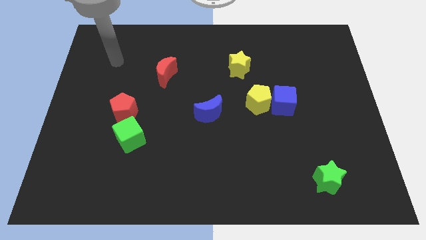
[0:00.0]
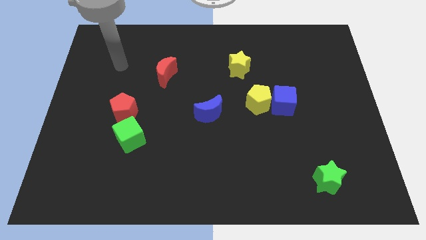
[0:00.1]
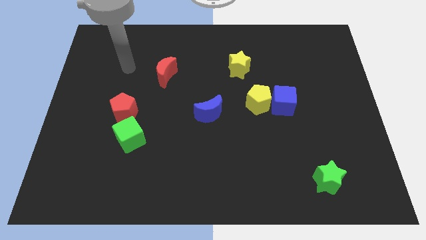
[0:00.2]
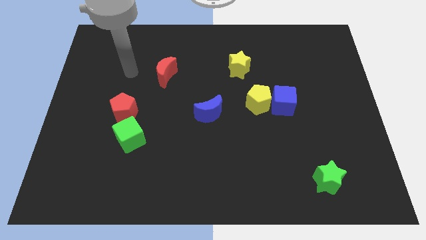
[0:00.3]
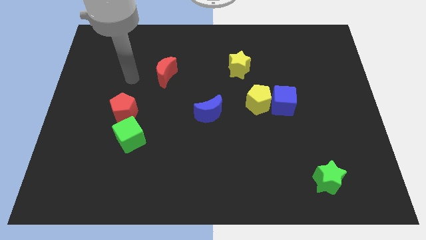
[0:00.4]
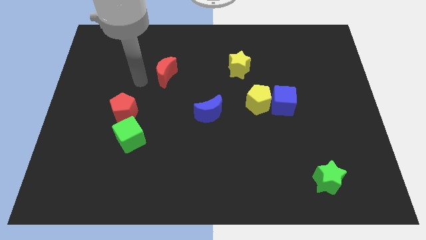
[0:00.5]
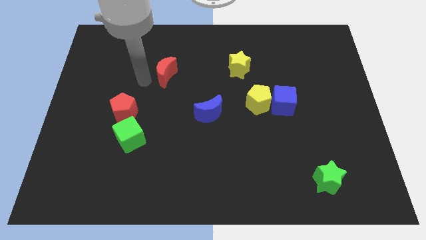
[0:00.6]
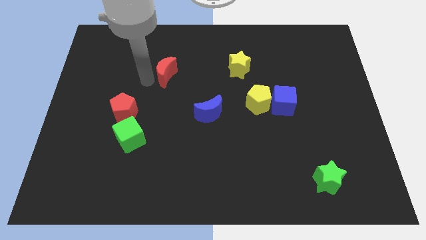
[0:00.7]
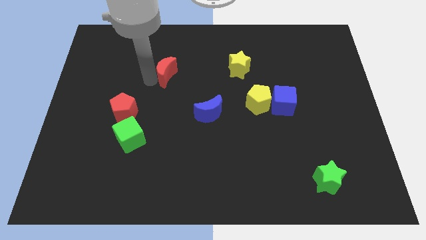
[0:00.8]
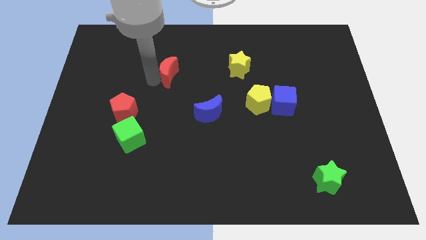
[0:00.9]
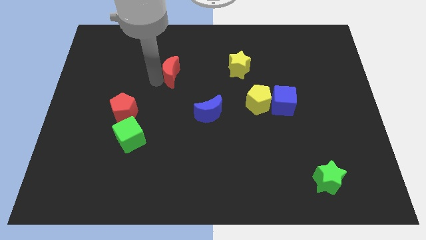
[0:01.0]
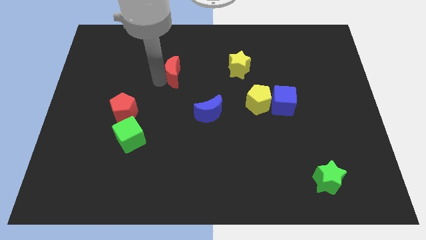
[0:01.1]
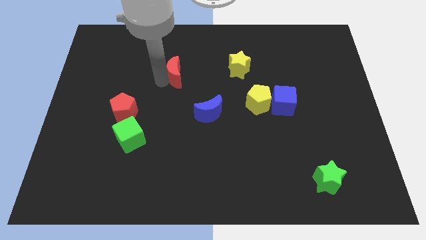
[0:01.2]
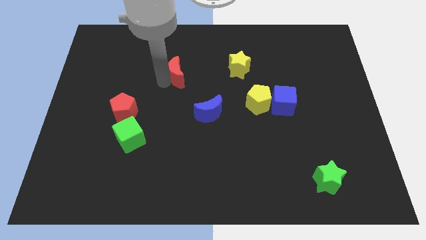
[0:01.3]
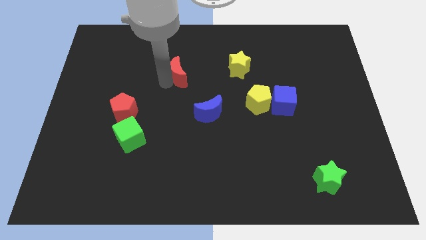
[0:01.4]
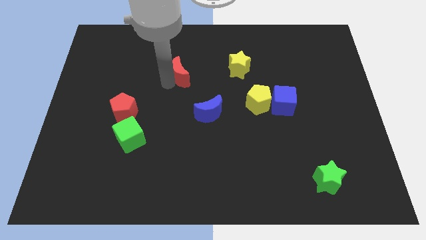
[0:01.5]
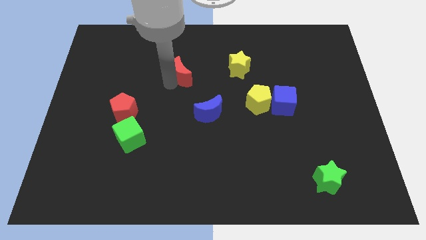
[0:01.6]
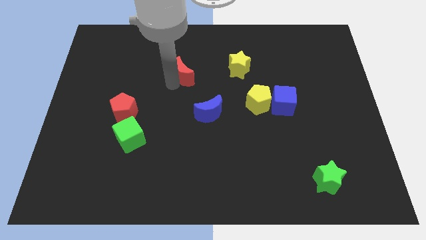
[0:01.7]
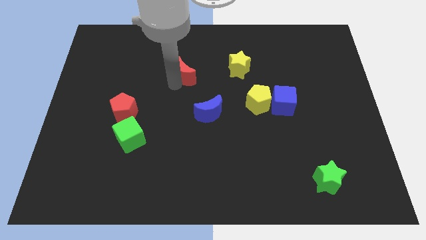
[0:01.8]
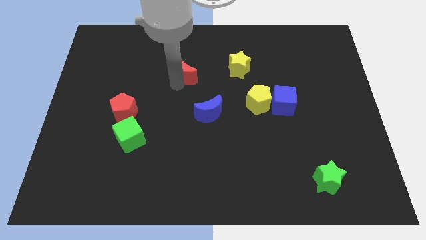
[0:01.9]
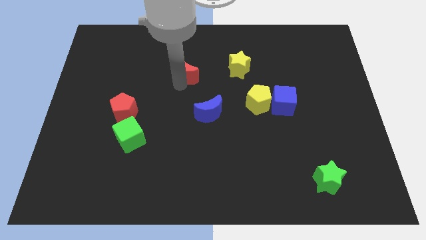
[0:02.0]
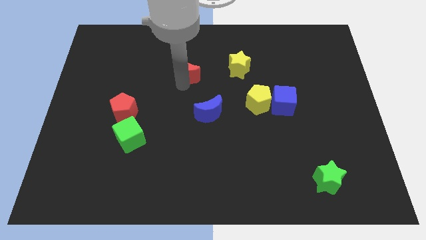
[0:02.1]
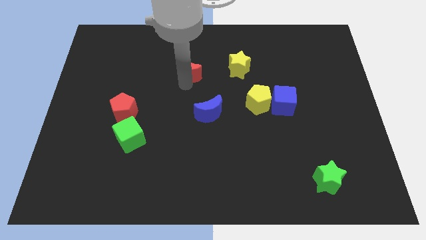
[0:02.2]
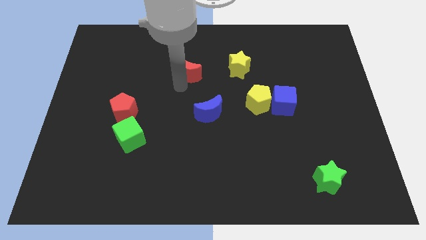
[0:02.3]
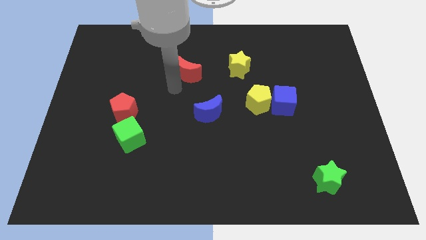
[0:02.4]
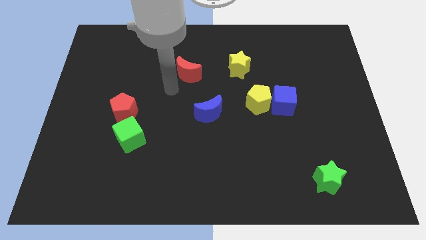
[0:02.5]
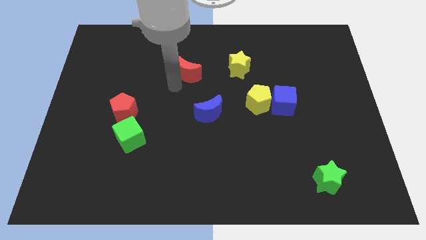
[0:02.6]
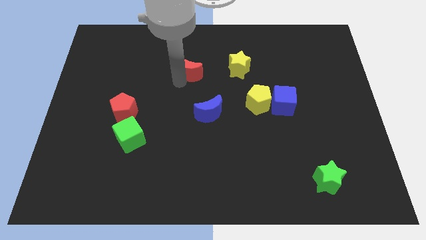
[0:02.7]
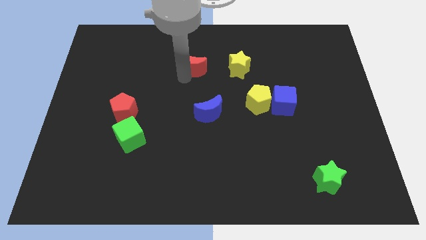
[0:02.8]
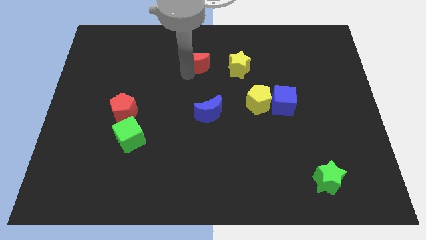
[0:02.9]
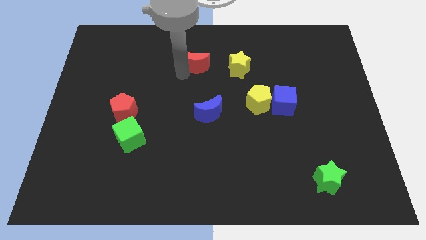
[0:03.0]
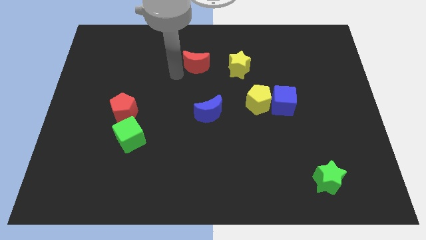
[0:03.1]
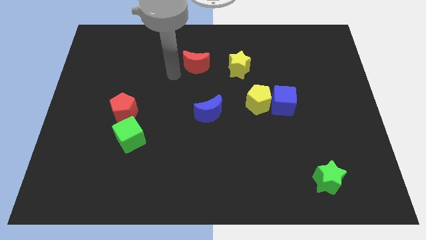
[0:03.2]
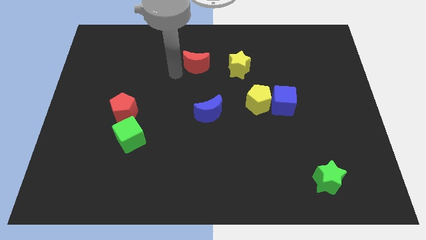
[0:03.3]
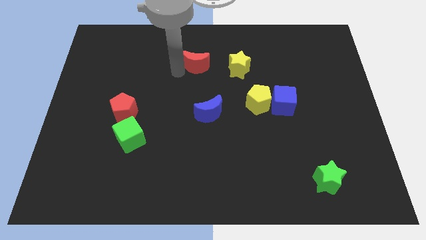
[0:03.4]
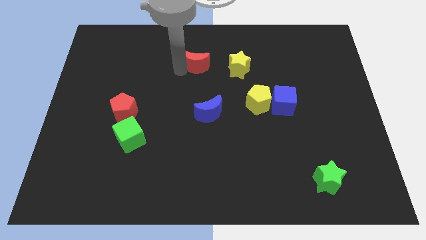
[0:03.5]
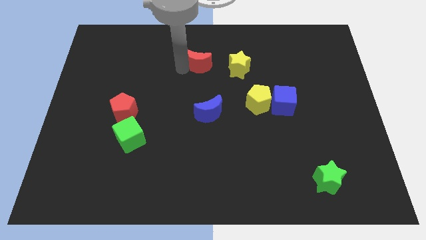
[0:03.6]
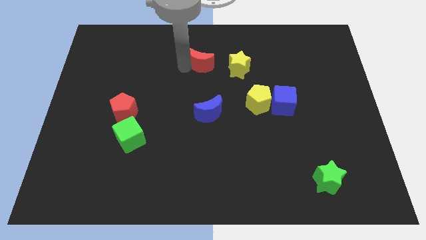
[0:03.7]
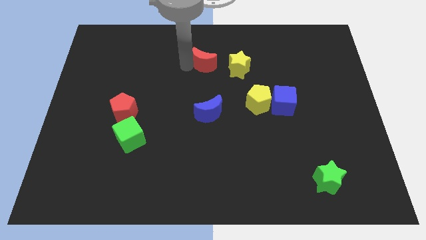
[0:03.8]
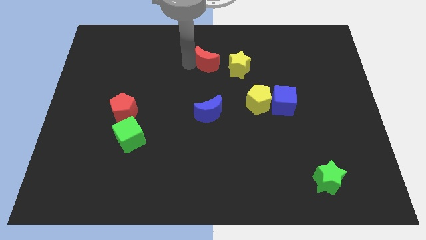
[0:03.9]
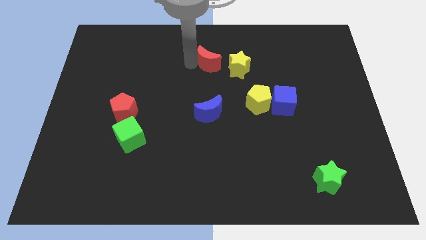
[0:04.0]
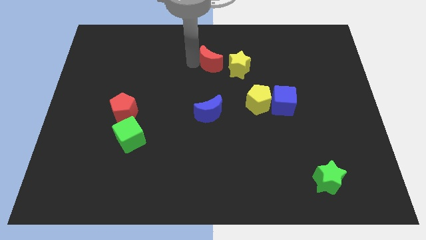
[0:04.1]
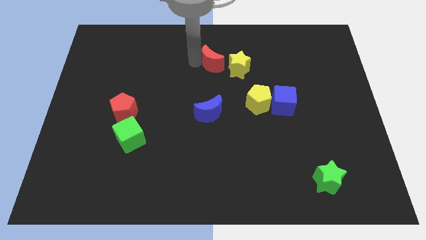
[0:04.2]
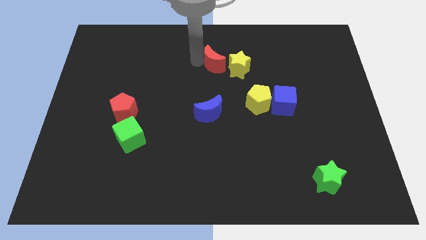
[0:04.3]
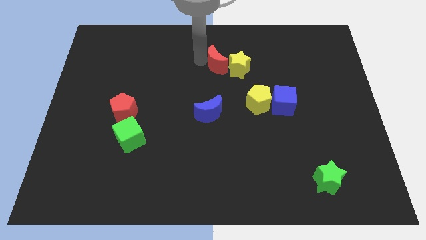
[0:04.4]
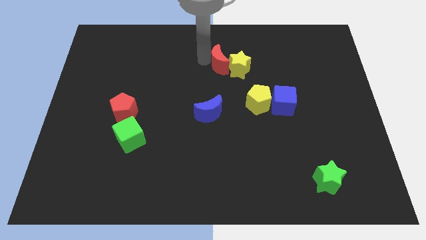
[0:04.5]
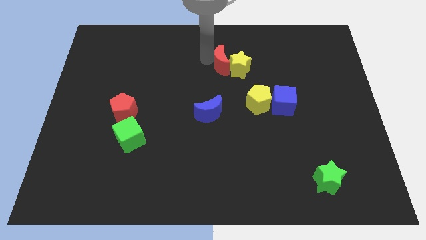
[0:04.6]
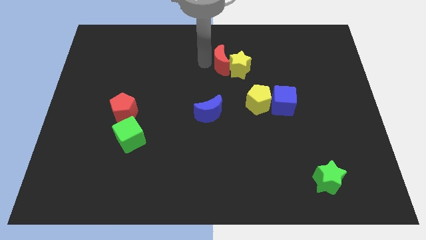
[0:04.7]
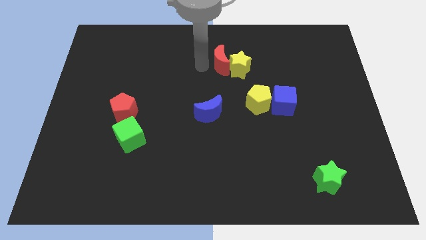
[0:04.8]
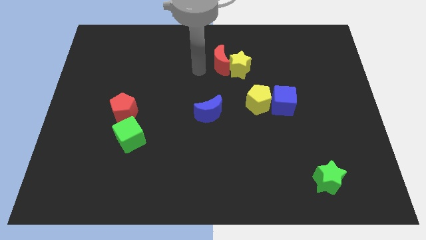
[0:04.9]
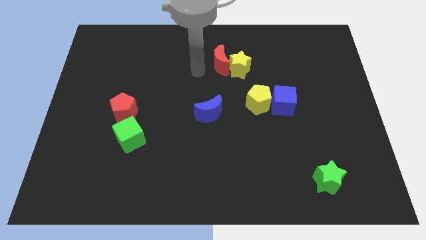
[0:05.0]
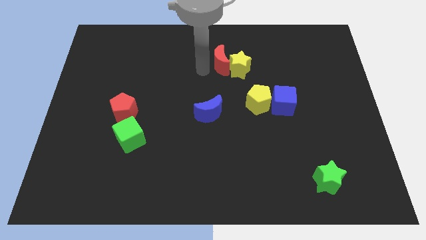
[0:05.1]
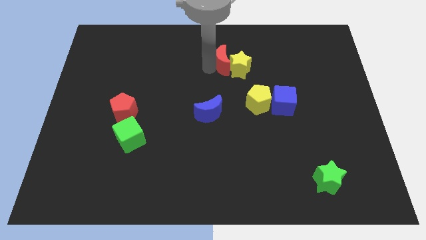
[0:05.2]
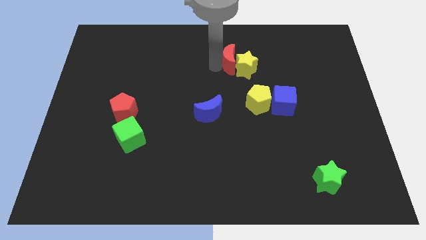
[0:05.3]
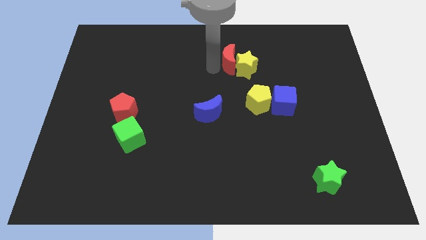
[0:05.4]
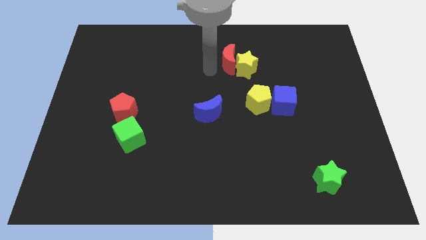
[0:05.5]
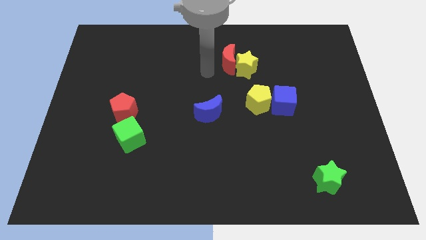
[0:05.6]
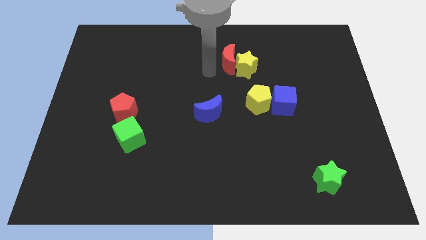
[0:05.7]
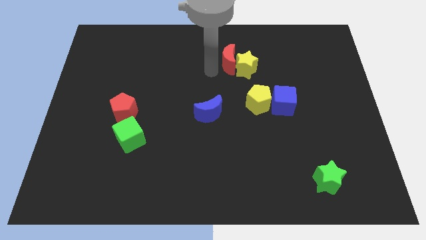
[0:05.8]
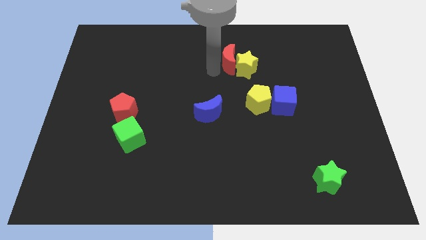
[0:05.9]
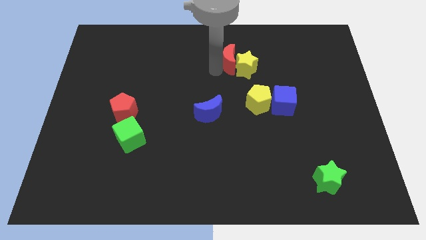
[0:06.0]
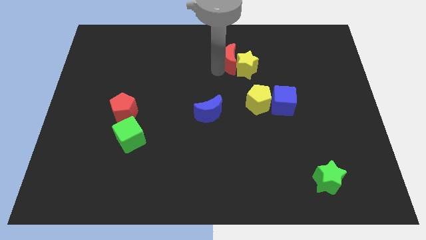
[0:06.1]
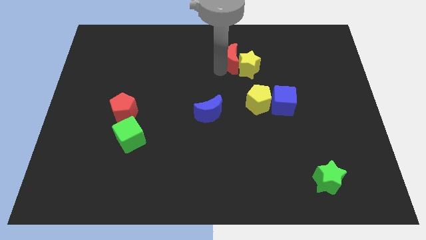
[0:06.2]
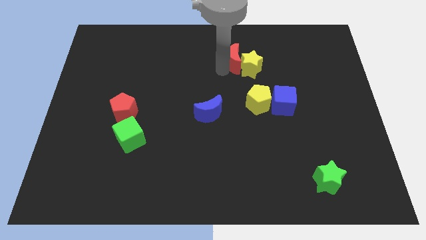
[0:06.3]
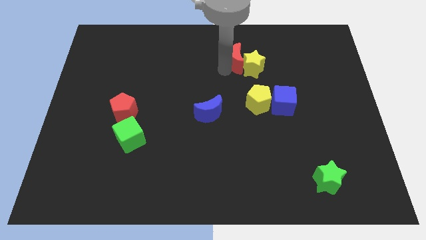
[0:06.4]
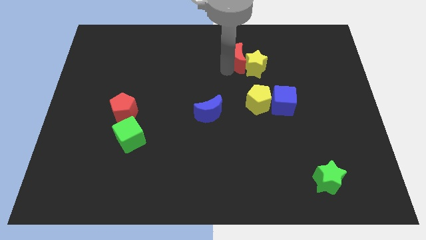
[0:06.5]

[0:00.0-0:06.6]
push the red moon above the yellow pentagon
